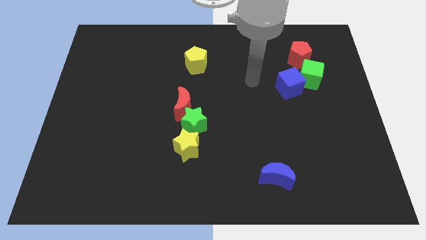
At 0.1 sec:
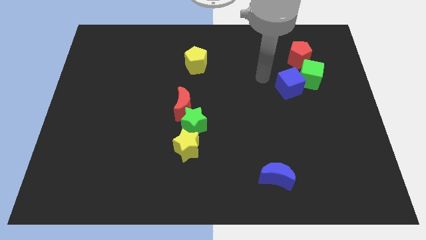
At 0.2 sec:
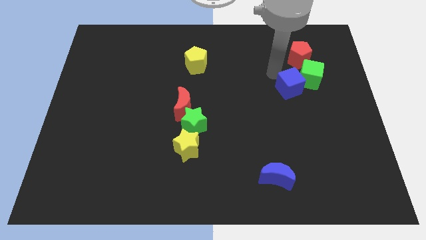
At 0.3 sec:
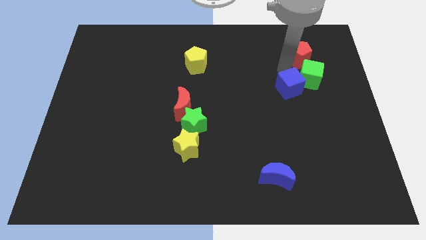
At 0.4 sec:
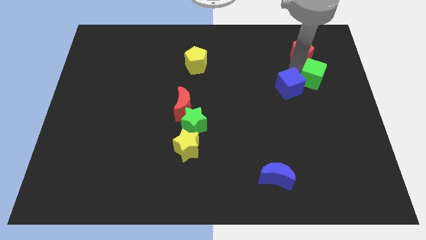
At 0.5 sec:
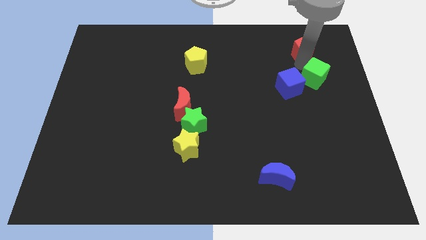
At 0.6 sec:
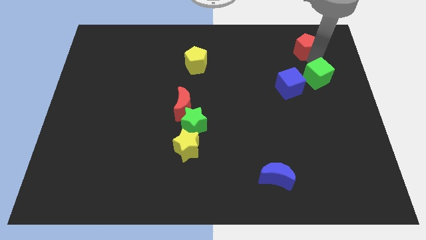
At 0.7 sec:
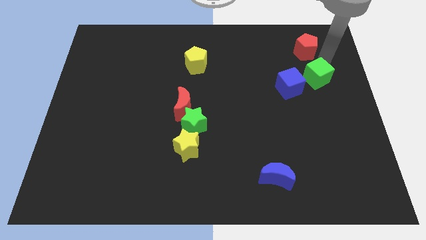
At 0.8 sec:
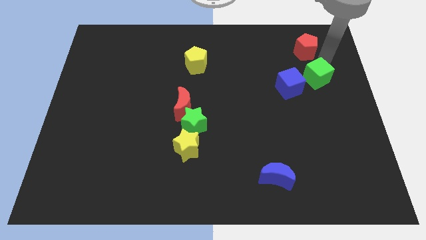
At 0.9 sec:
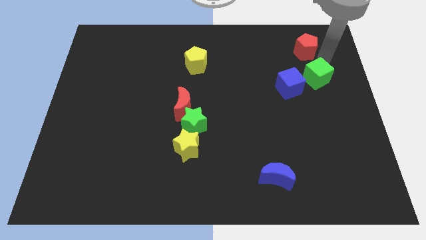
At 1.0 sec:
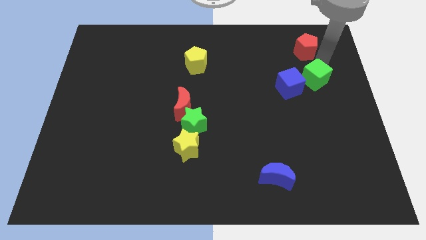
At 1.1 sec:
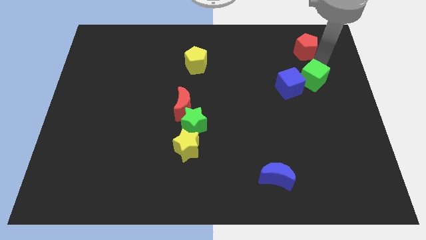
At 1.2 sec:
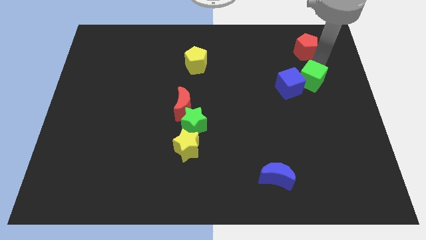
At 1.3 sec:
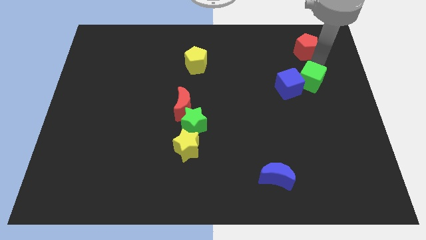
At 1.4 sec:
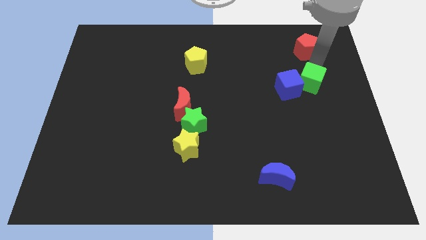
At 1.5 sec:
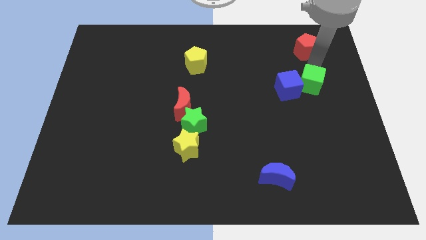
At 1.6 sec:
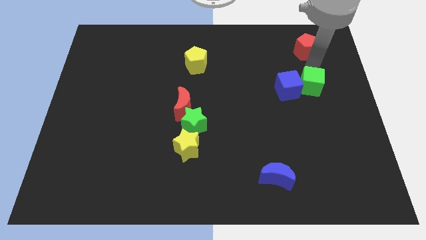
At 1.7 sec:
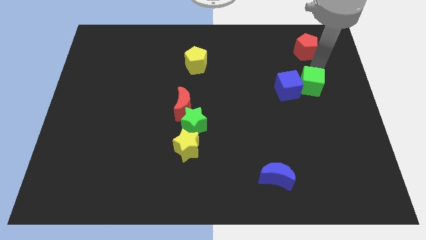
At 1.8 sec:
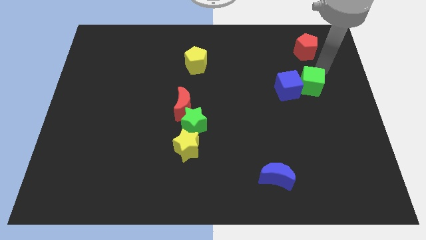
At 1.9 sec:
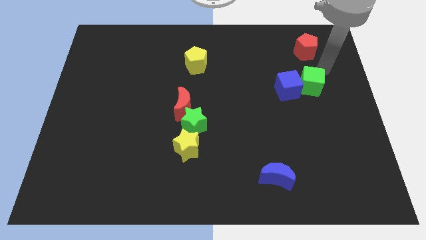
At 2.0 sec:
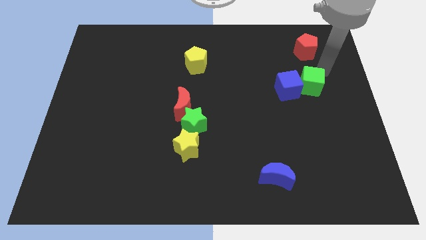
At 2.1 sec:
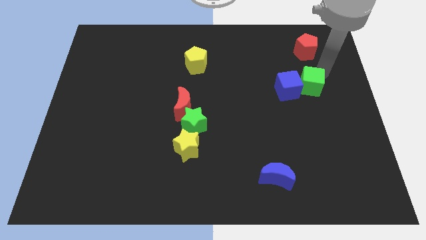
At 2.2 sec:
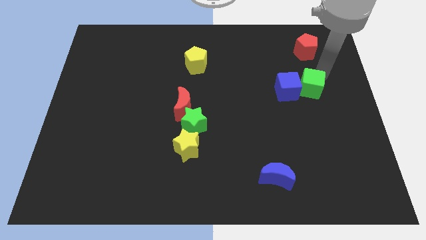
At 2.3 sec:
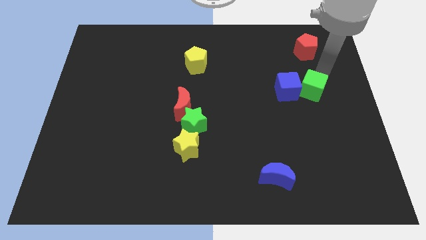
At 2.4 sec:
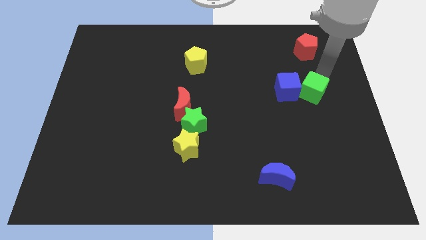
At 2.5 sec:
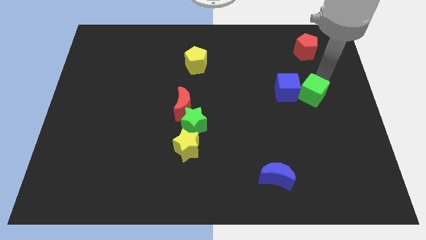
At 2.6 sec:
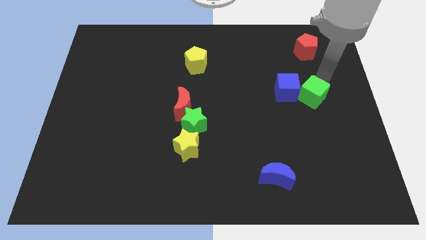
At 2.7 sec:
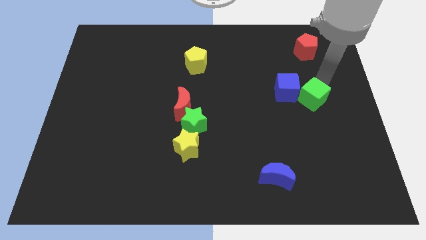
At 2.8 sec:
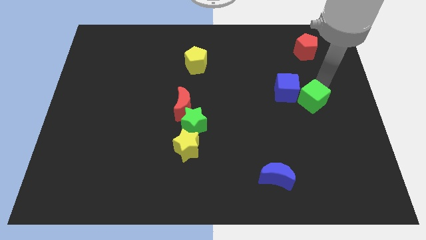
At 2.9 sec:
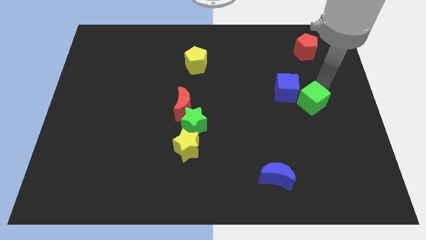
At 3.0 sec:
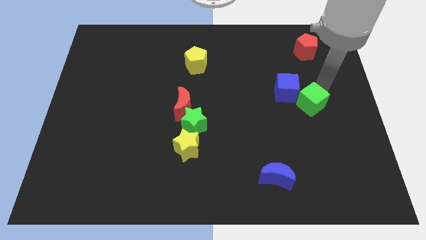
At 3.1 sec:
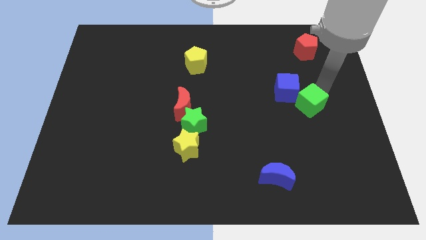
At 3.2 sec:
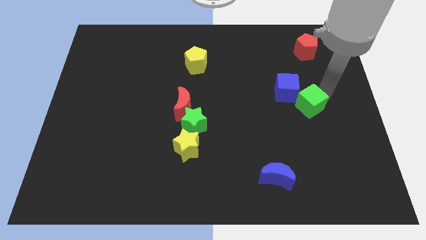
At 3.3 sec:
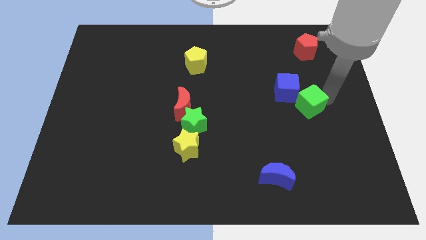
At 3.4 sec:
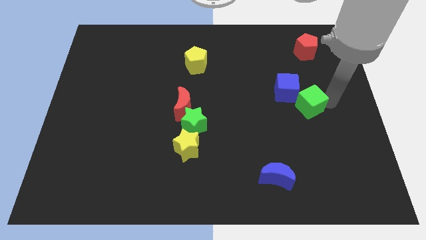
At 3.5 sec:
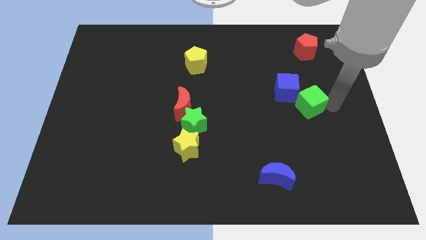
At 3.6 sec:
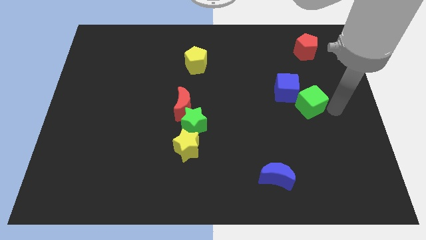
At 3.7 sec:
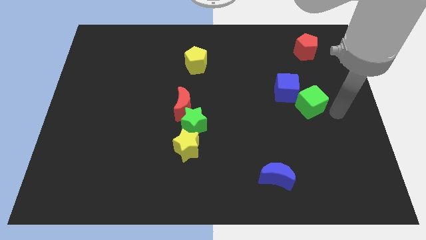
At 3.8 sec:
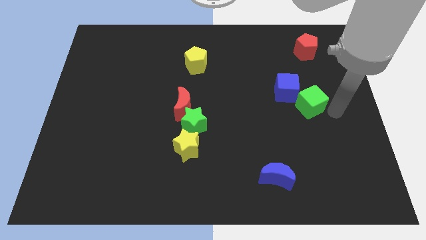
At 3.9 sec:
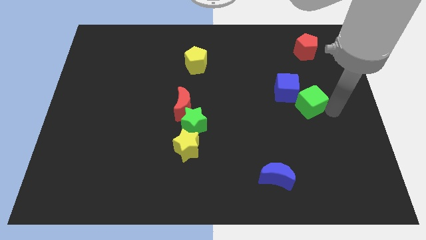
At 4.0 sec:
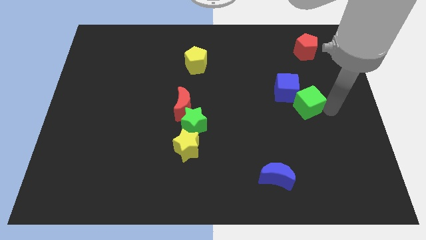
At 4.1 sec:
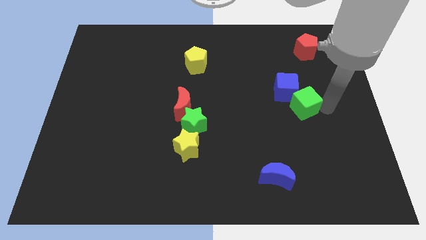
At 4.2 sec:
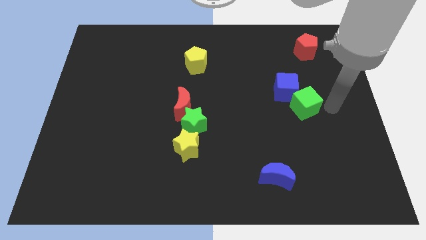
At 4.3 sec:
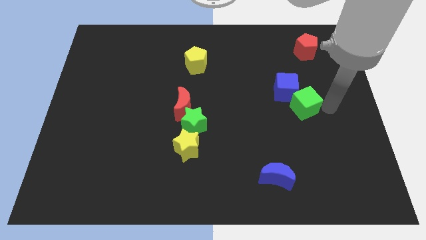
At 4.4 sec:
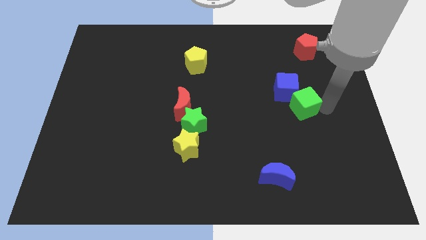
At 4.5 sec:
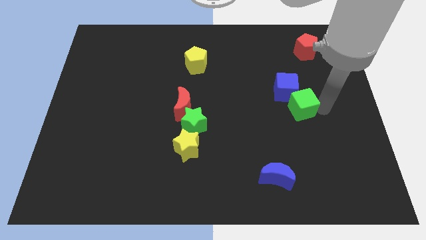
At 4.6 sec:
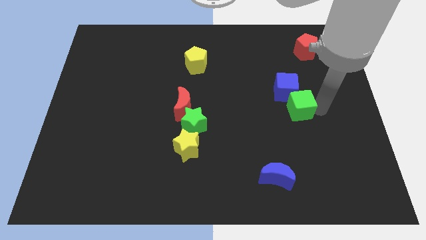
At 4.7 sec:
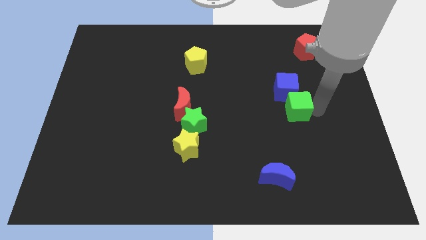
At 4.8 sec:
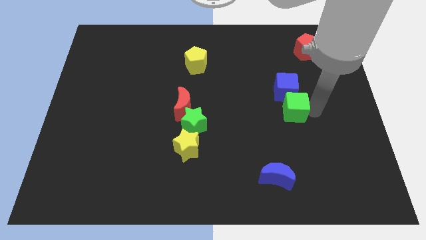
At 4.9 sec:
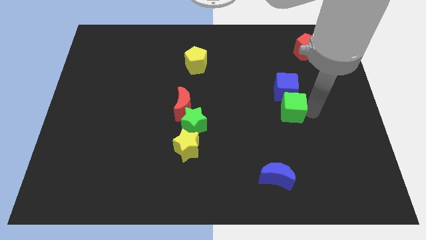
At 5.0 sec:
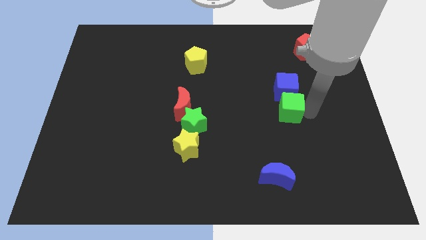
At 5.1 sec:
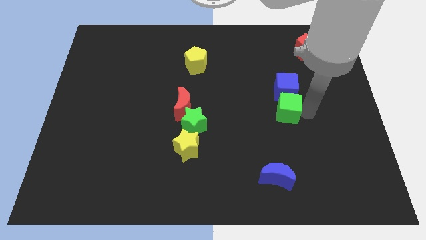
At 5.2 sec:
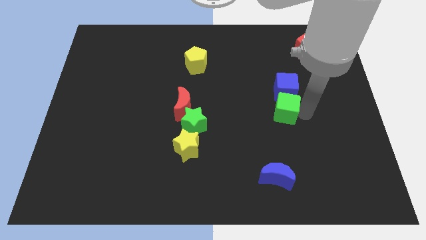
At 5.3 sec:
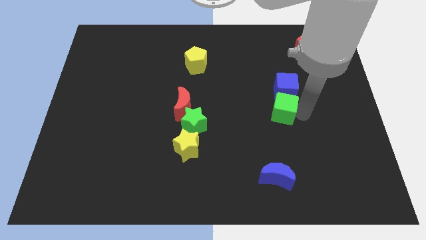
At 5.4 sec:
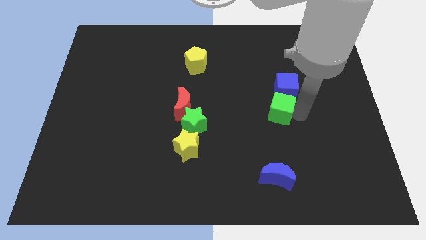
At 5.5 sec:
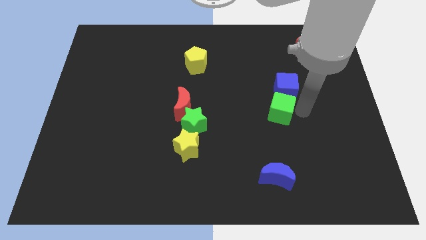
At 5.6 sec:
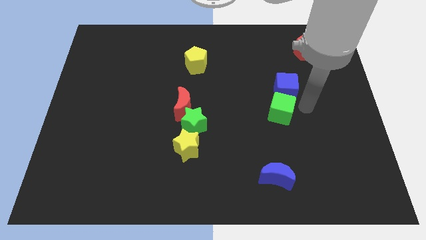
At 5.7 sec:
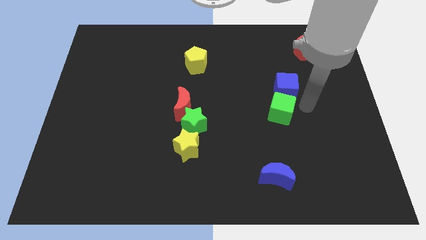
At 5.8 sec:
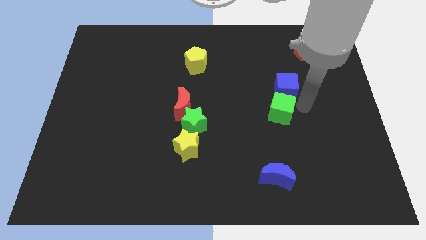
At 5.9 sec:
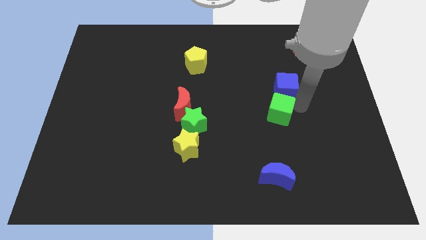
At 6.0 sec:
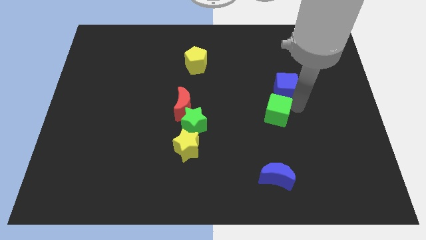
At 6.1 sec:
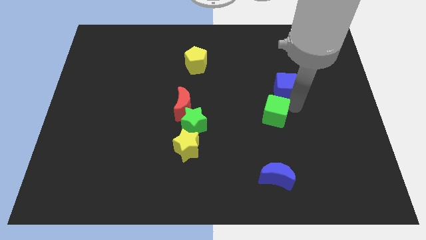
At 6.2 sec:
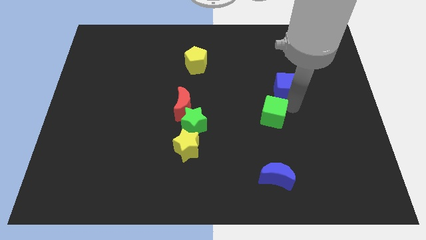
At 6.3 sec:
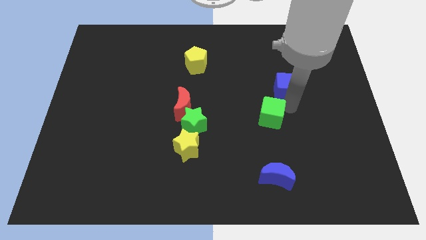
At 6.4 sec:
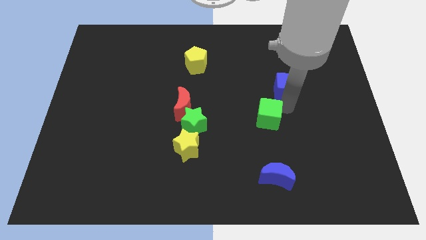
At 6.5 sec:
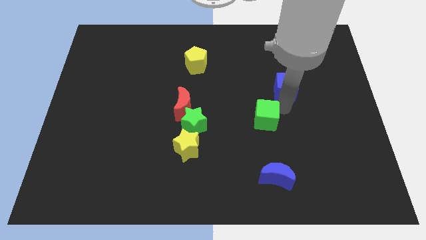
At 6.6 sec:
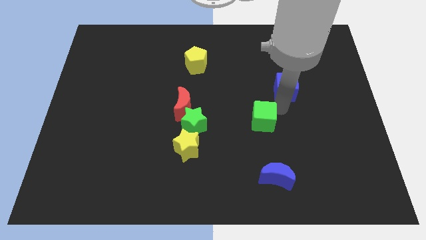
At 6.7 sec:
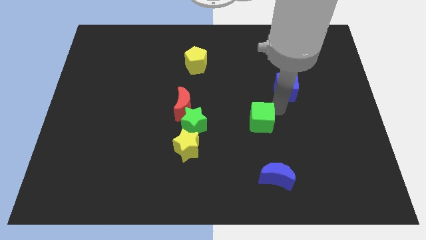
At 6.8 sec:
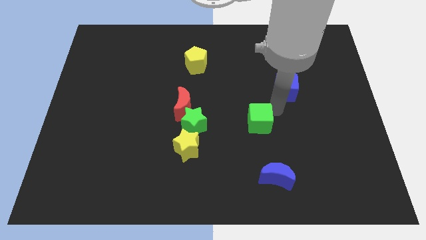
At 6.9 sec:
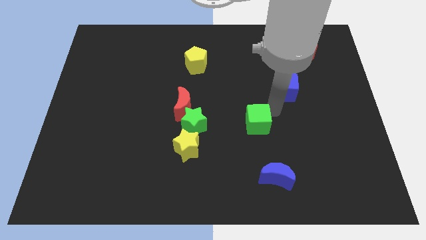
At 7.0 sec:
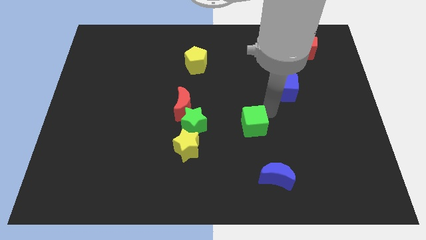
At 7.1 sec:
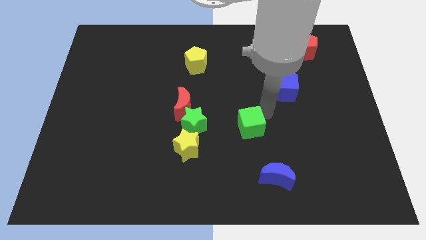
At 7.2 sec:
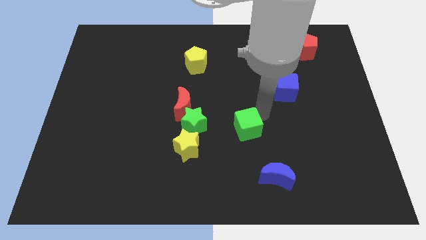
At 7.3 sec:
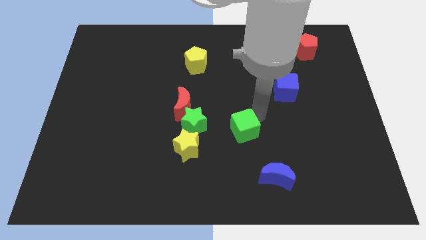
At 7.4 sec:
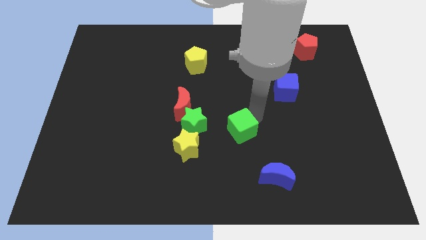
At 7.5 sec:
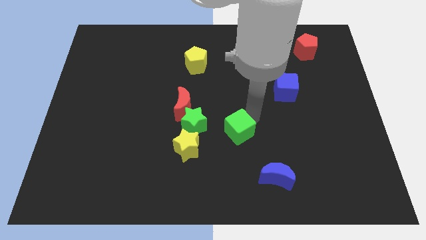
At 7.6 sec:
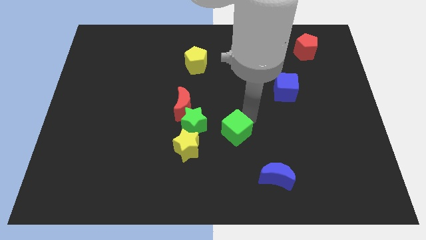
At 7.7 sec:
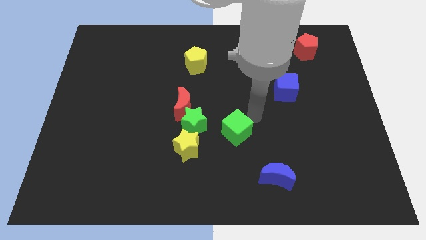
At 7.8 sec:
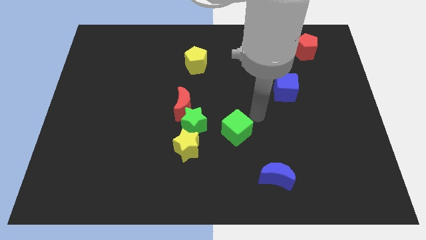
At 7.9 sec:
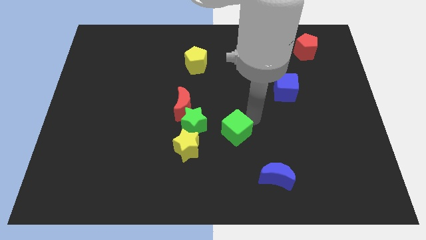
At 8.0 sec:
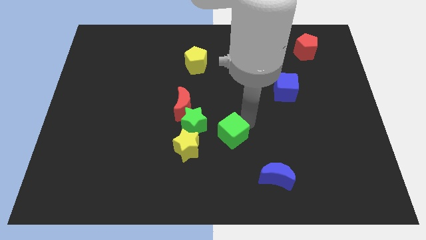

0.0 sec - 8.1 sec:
push the green cube diagonally down and to the right of the green star
